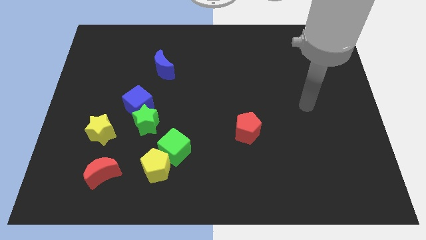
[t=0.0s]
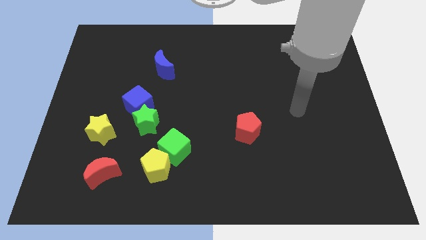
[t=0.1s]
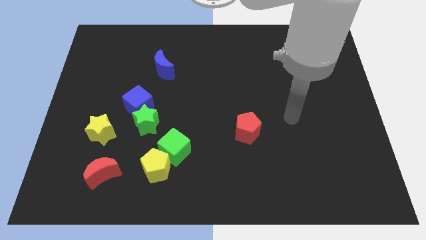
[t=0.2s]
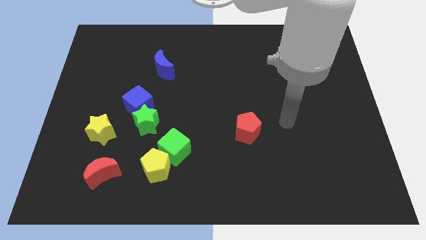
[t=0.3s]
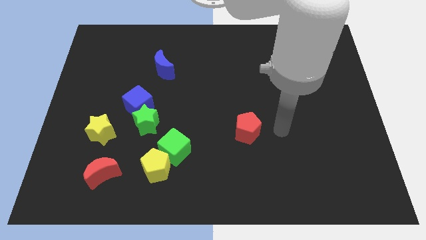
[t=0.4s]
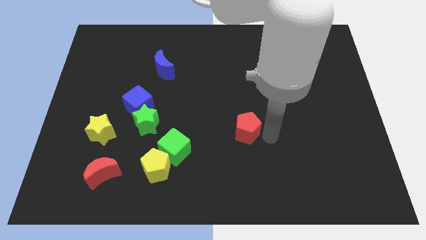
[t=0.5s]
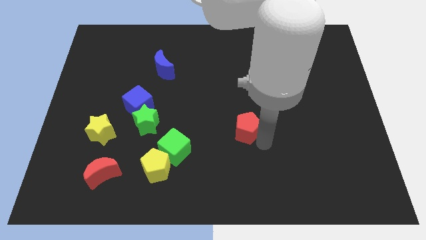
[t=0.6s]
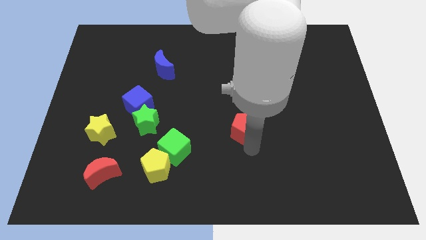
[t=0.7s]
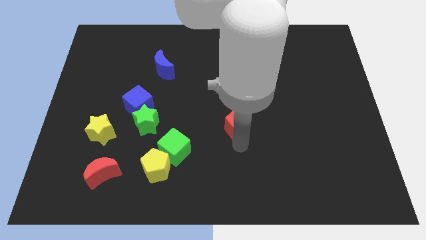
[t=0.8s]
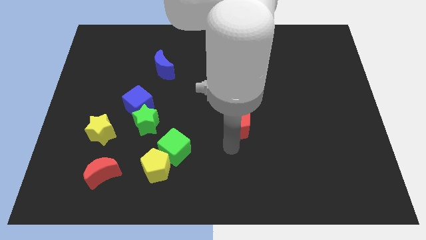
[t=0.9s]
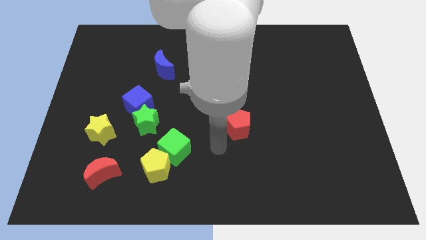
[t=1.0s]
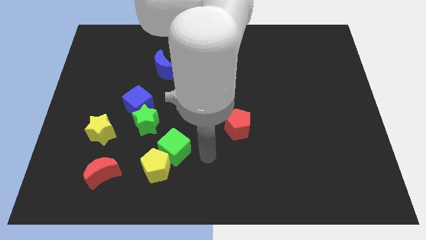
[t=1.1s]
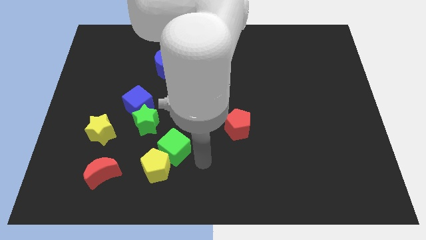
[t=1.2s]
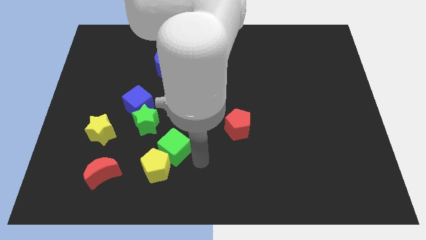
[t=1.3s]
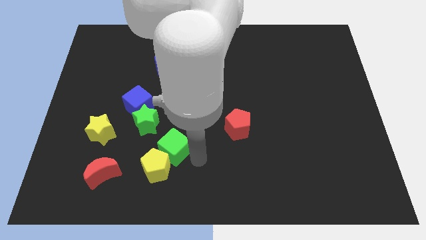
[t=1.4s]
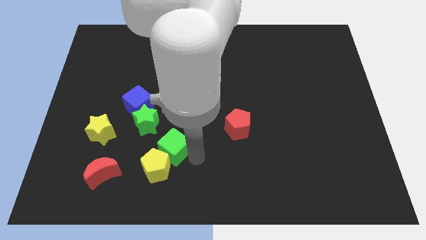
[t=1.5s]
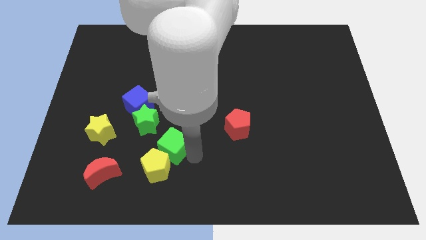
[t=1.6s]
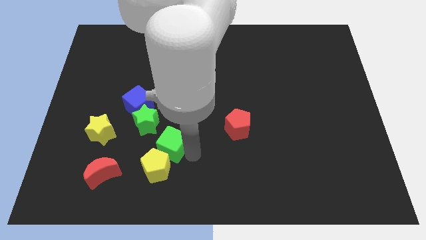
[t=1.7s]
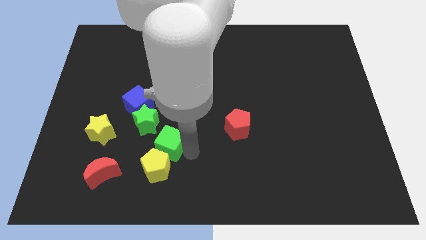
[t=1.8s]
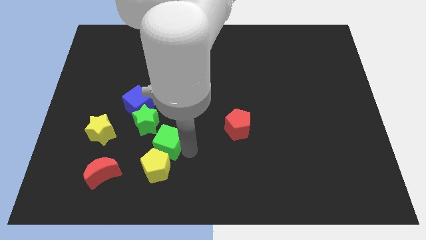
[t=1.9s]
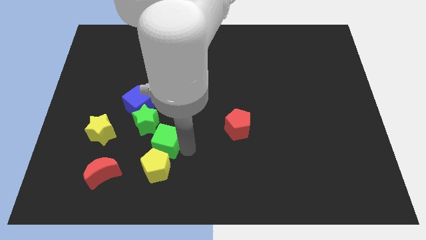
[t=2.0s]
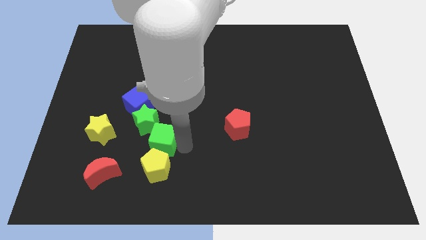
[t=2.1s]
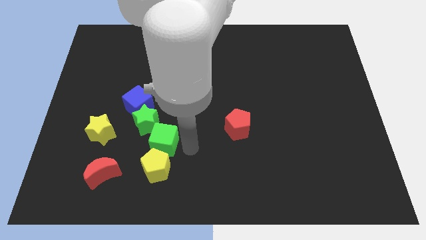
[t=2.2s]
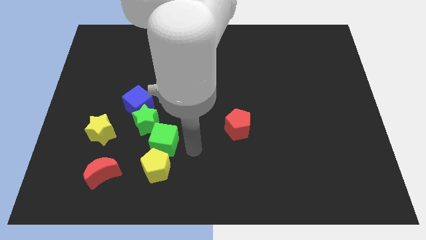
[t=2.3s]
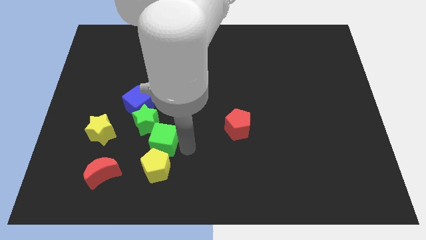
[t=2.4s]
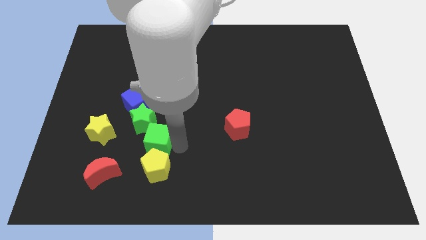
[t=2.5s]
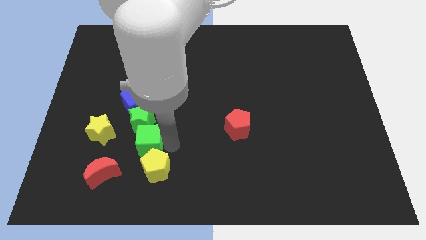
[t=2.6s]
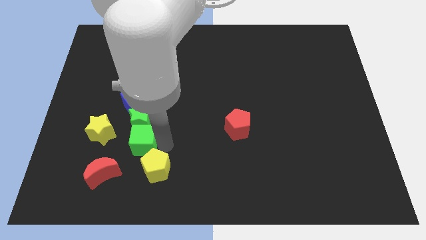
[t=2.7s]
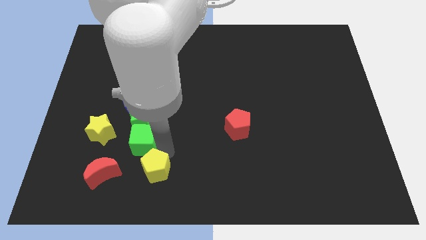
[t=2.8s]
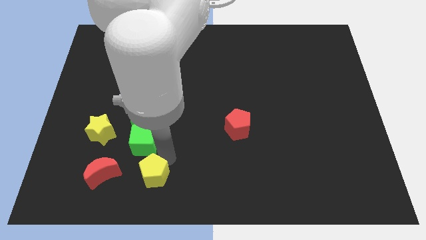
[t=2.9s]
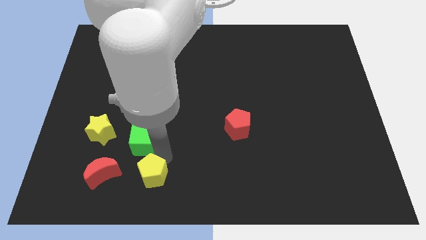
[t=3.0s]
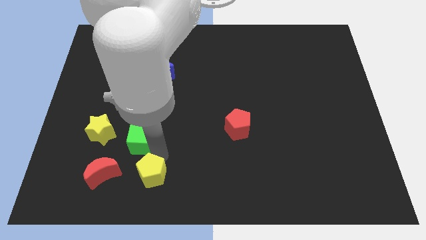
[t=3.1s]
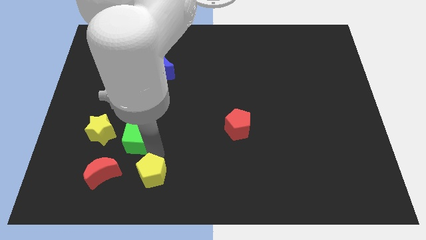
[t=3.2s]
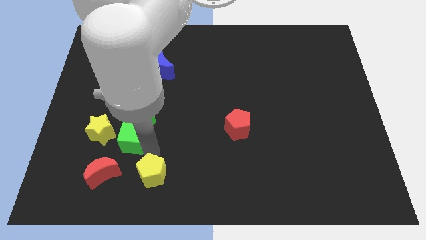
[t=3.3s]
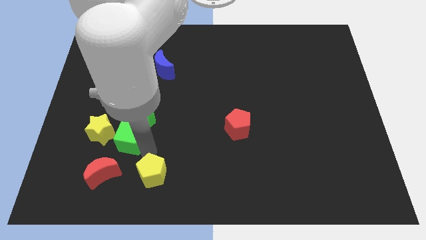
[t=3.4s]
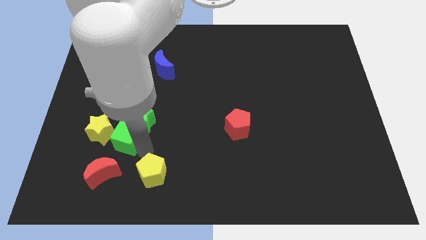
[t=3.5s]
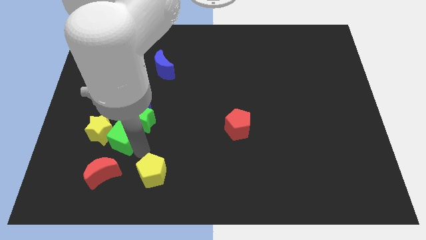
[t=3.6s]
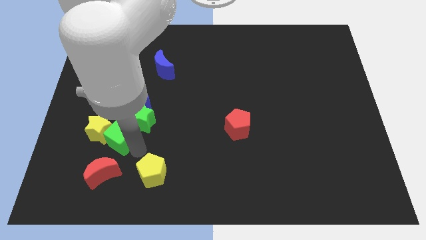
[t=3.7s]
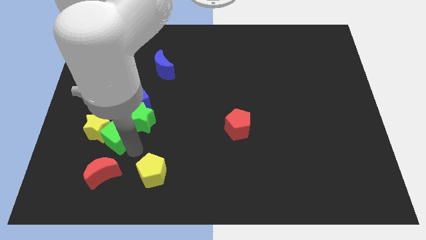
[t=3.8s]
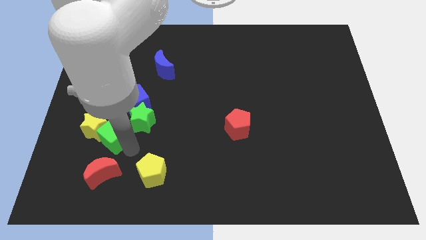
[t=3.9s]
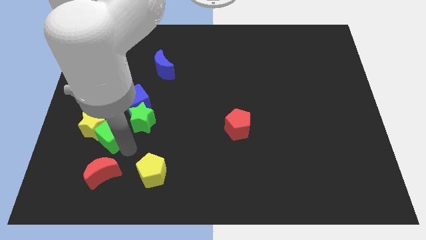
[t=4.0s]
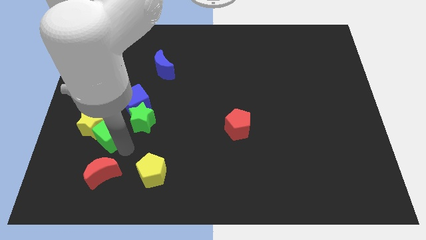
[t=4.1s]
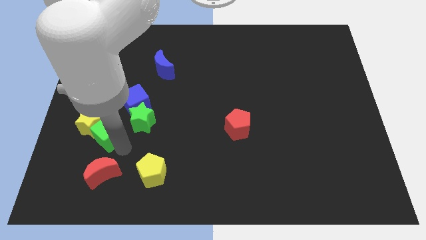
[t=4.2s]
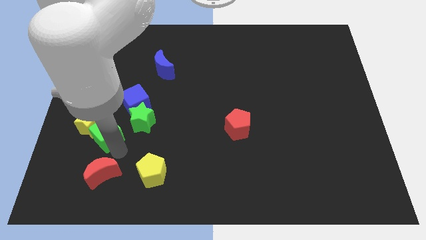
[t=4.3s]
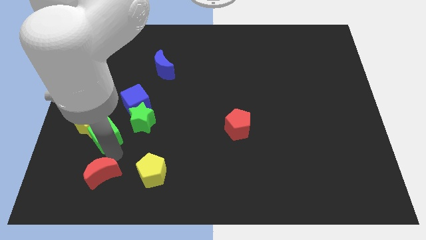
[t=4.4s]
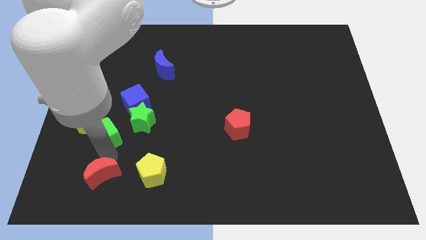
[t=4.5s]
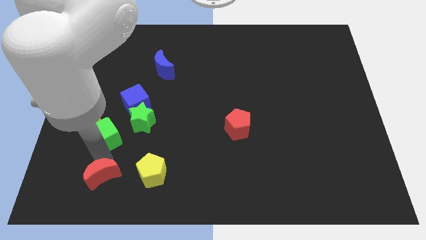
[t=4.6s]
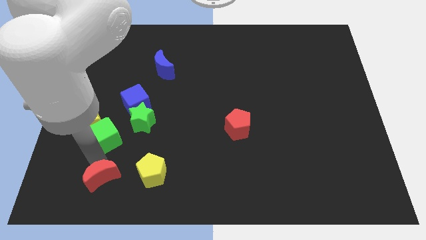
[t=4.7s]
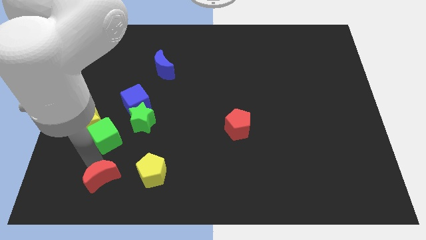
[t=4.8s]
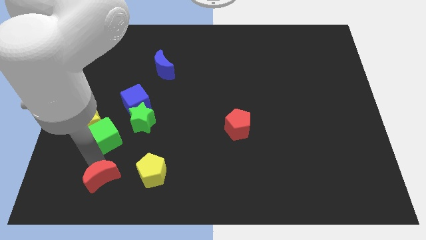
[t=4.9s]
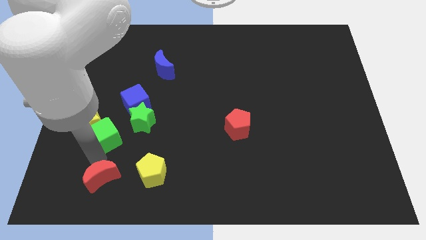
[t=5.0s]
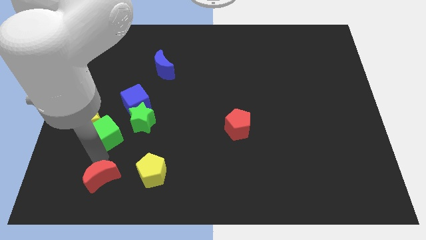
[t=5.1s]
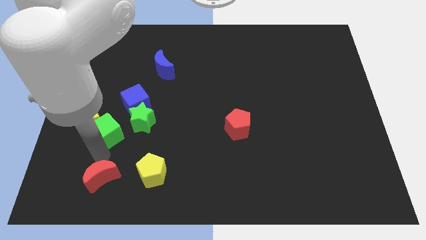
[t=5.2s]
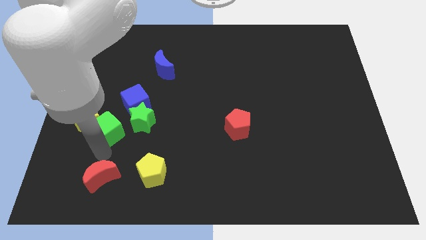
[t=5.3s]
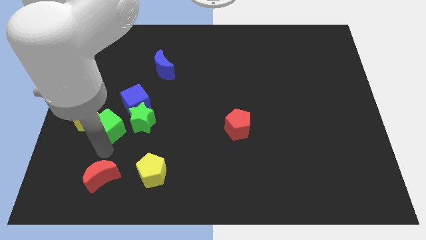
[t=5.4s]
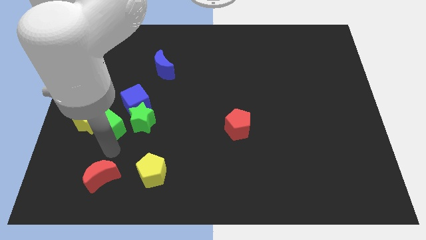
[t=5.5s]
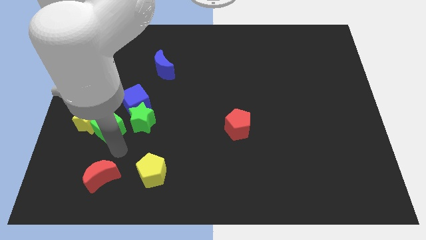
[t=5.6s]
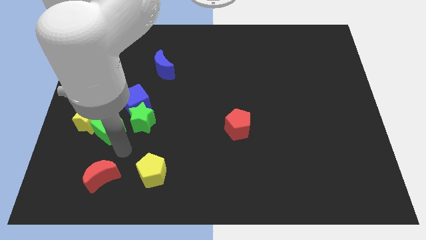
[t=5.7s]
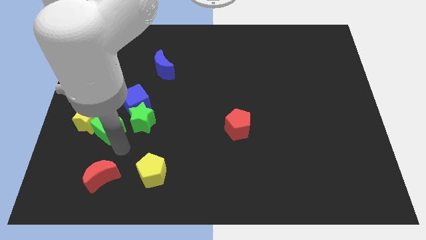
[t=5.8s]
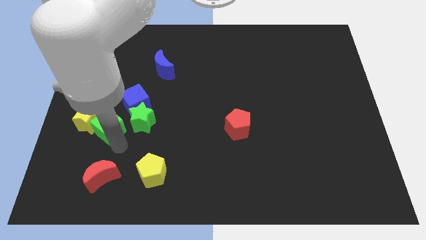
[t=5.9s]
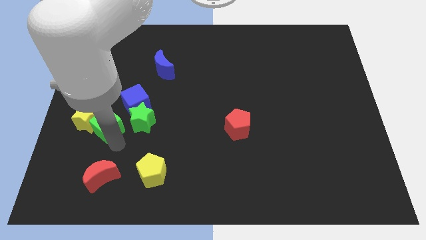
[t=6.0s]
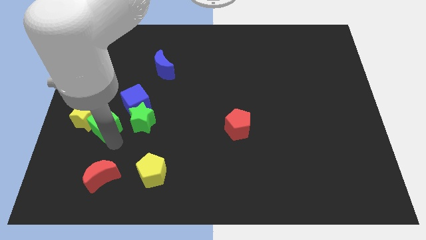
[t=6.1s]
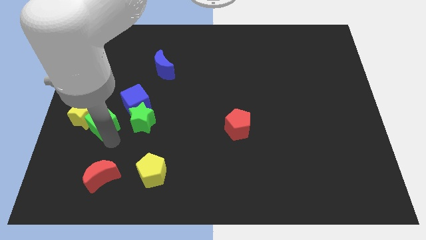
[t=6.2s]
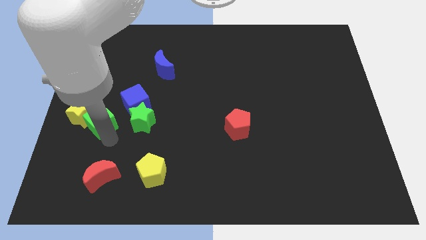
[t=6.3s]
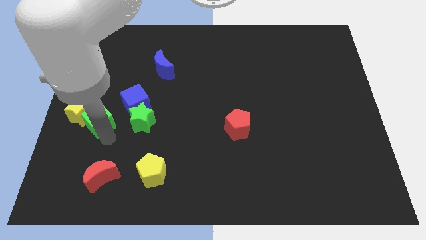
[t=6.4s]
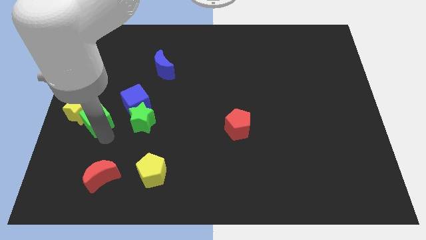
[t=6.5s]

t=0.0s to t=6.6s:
push the green cube to the left side
